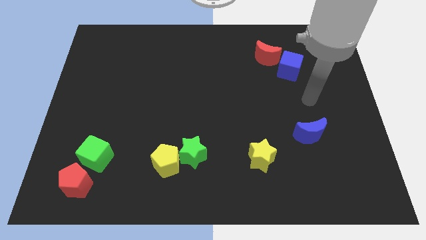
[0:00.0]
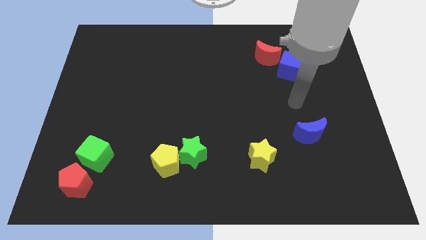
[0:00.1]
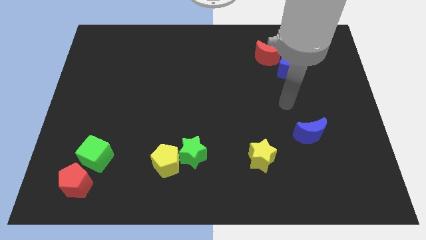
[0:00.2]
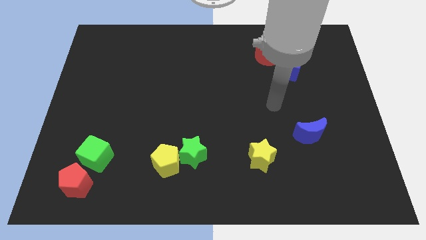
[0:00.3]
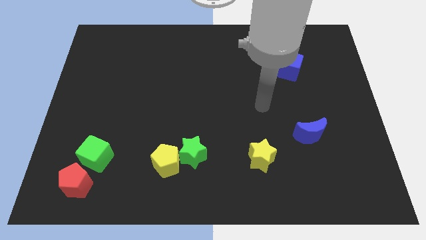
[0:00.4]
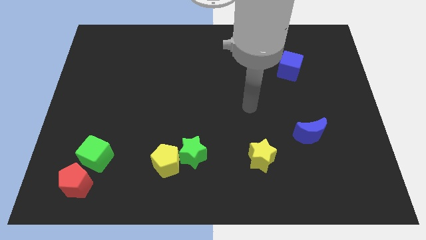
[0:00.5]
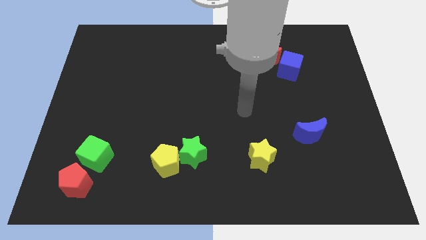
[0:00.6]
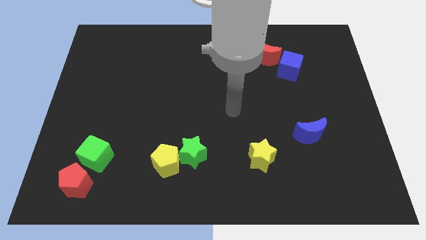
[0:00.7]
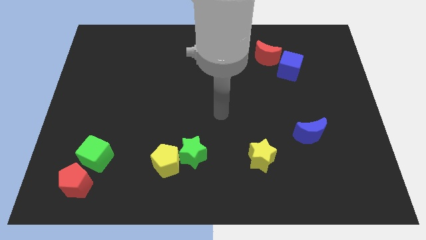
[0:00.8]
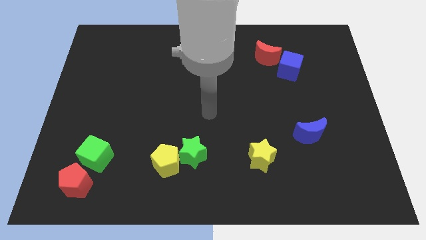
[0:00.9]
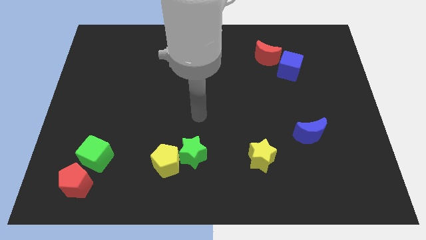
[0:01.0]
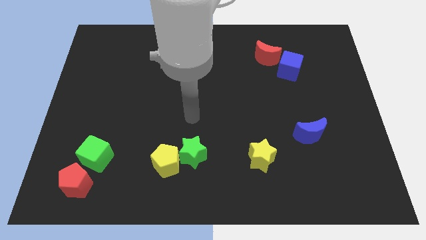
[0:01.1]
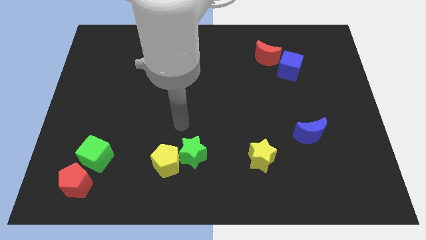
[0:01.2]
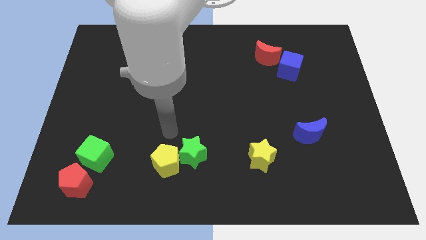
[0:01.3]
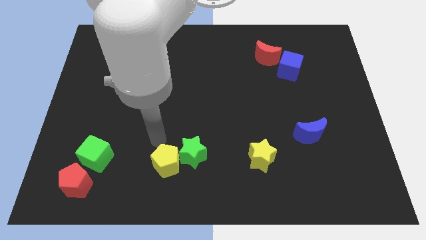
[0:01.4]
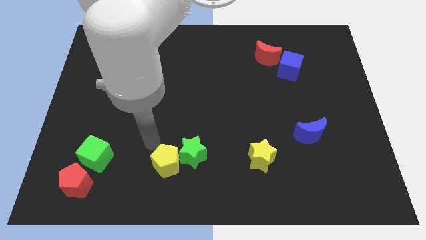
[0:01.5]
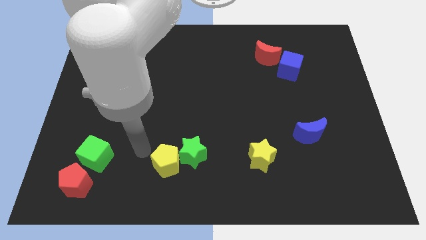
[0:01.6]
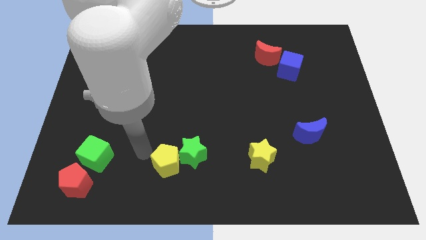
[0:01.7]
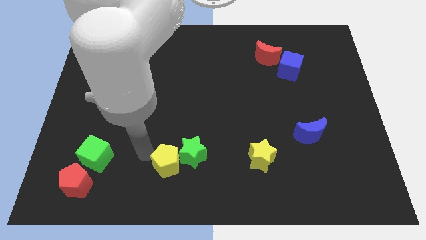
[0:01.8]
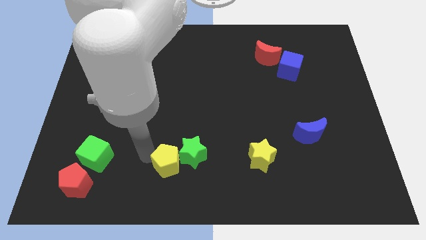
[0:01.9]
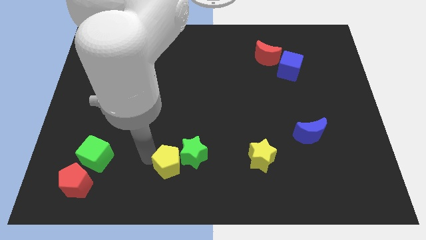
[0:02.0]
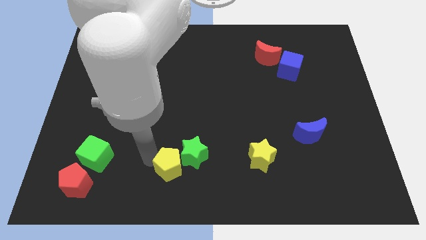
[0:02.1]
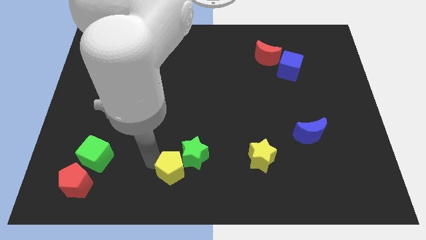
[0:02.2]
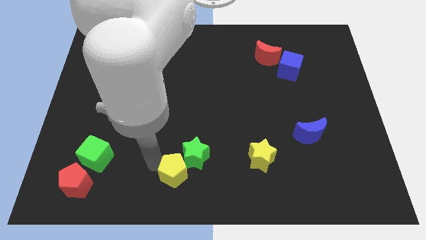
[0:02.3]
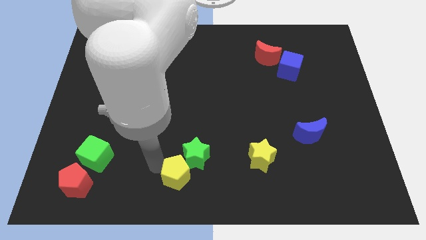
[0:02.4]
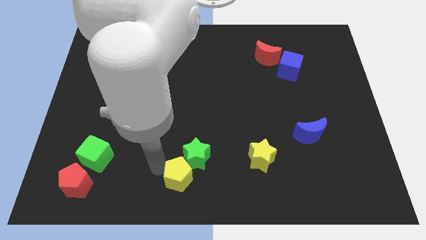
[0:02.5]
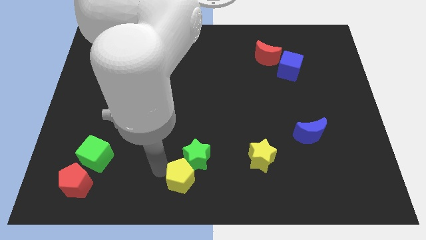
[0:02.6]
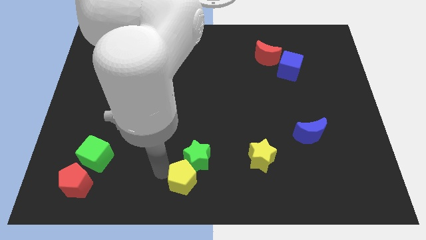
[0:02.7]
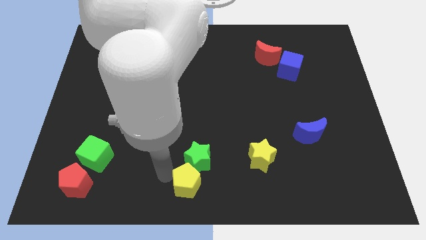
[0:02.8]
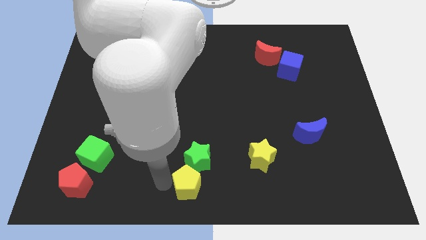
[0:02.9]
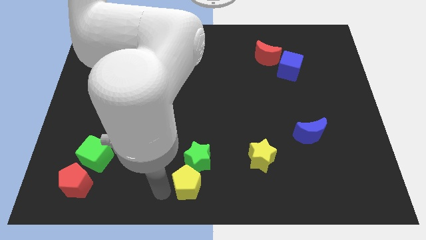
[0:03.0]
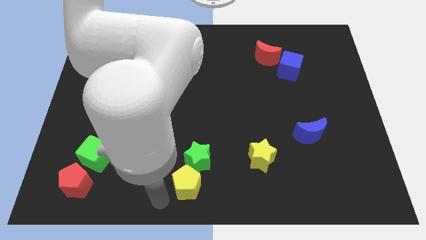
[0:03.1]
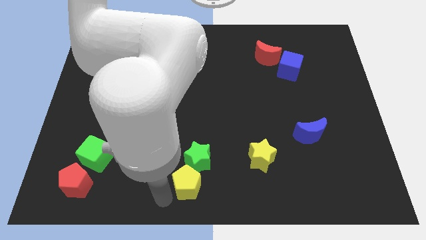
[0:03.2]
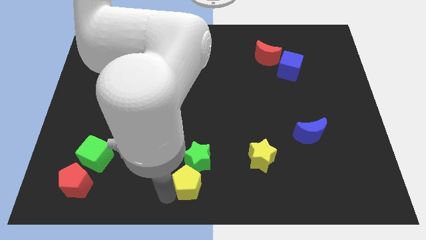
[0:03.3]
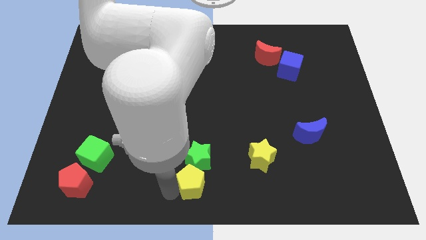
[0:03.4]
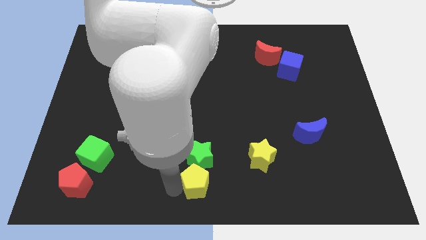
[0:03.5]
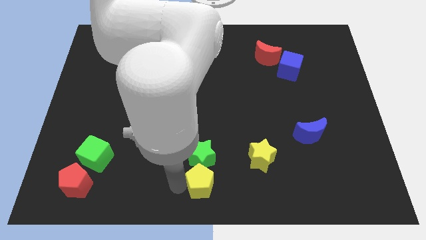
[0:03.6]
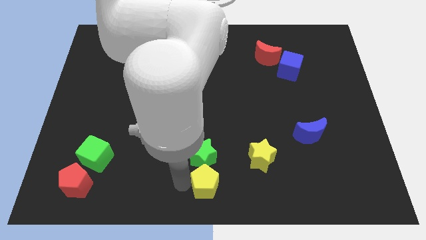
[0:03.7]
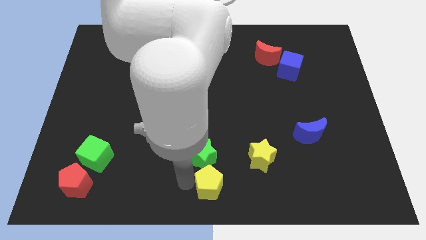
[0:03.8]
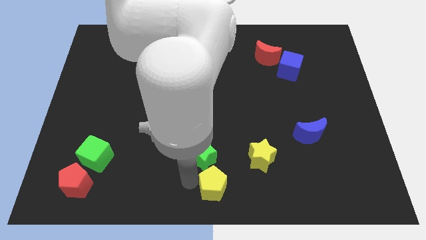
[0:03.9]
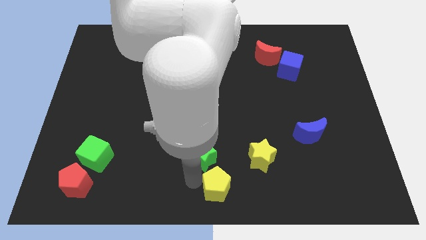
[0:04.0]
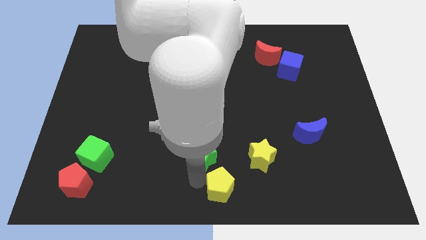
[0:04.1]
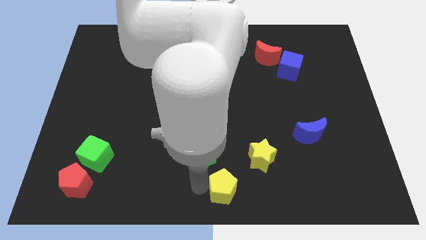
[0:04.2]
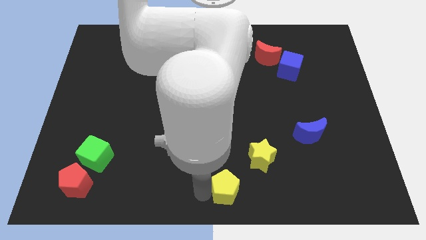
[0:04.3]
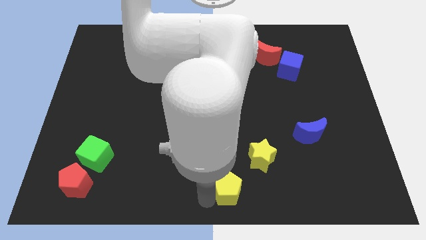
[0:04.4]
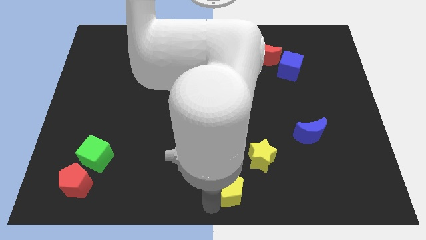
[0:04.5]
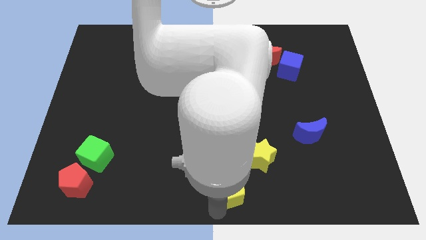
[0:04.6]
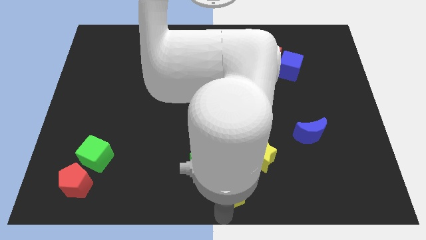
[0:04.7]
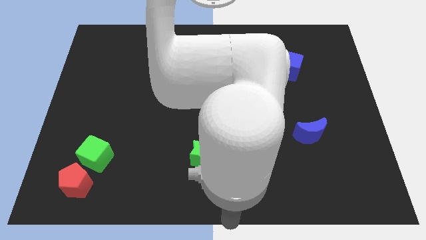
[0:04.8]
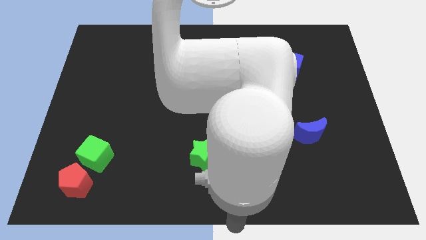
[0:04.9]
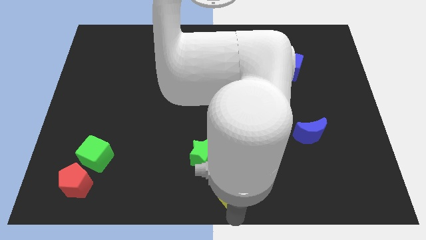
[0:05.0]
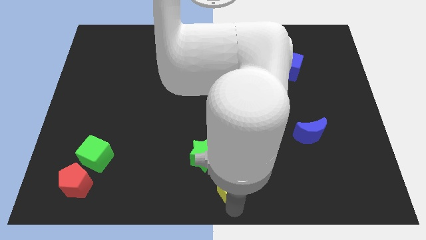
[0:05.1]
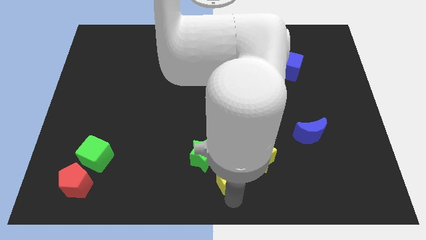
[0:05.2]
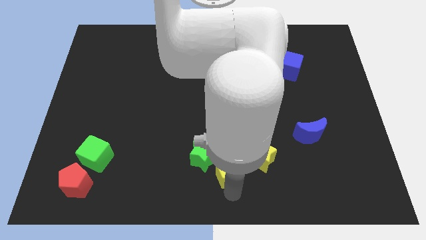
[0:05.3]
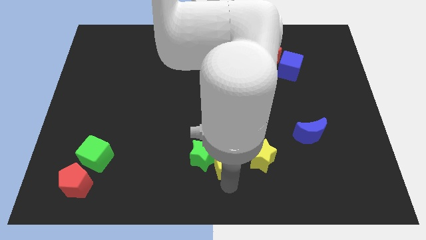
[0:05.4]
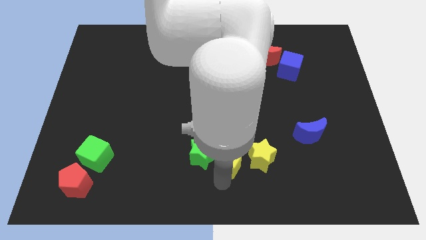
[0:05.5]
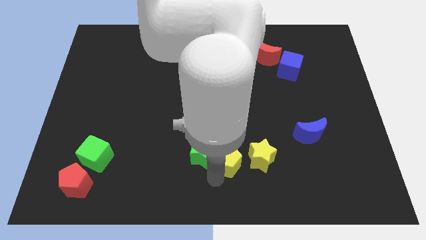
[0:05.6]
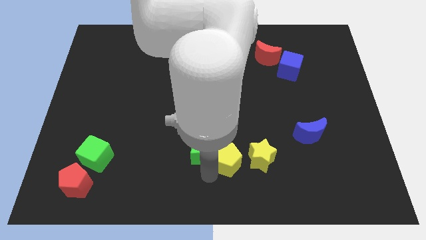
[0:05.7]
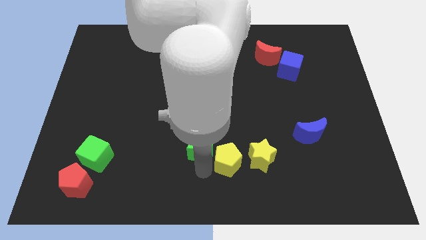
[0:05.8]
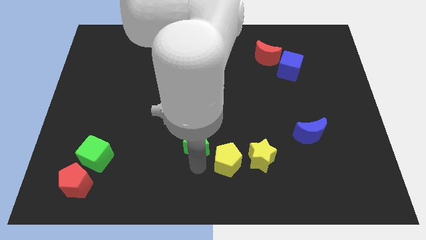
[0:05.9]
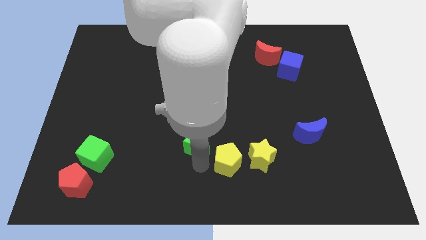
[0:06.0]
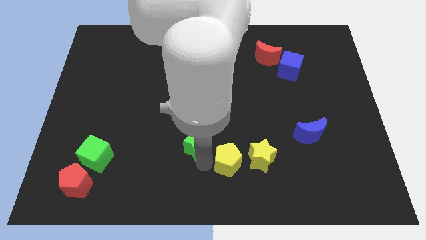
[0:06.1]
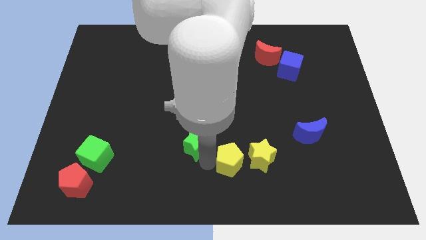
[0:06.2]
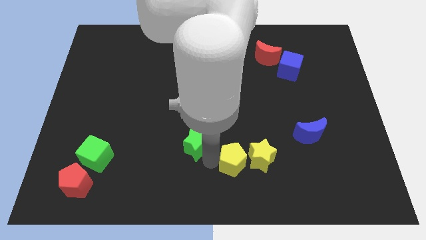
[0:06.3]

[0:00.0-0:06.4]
slide the yellow pentagon next to the yellow star

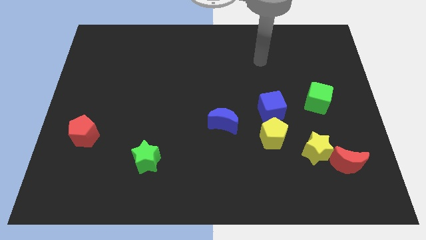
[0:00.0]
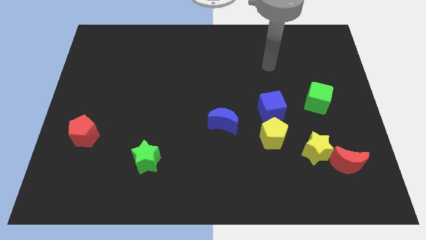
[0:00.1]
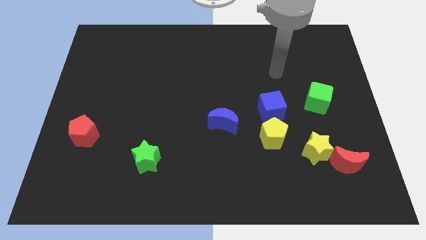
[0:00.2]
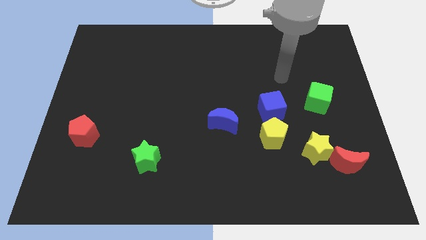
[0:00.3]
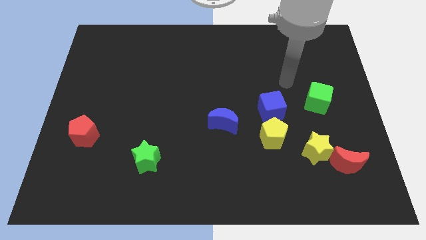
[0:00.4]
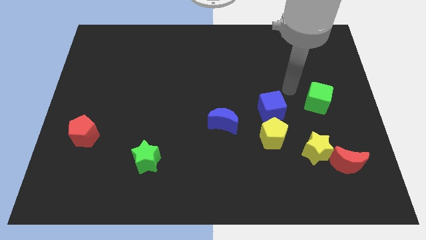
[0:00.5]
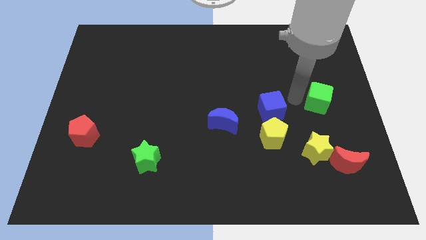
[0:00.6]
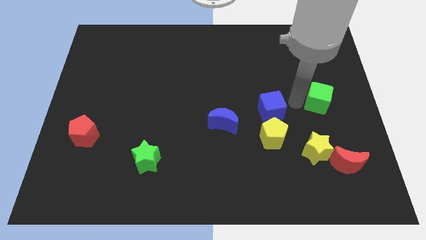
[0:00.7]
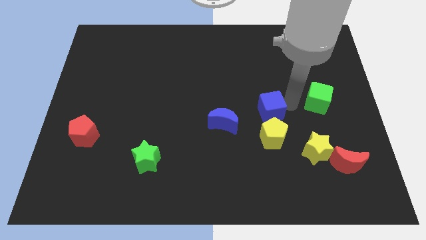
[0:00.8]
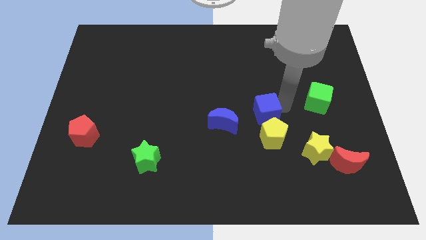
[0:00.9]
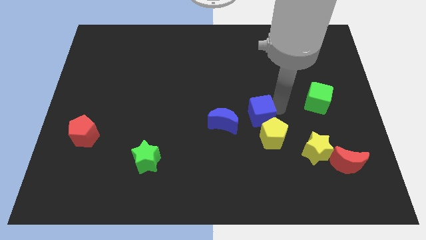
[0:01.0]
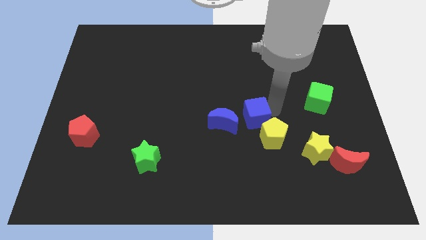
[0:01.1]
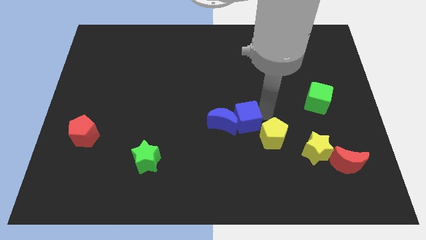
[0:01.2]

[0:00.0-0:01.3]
slide the blue cube towards the blue moon
